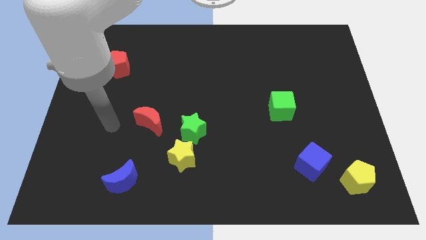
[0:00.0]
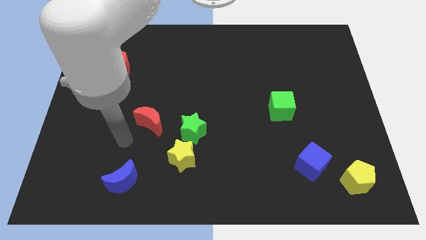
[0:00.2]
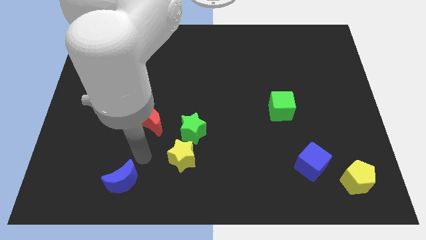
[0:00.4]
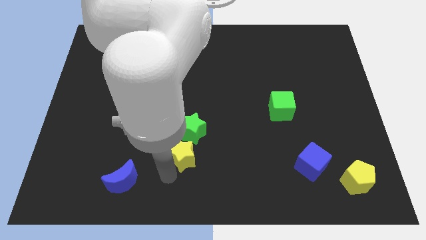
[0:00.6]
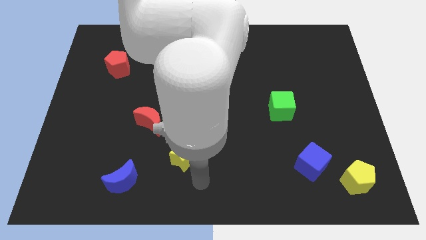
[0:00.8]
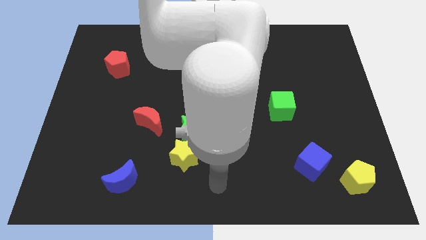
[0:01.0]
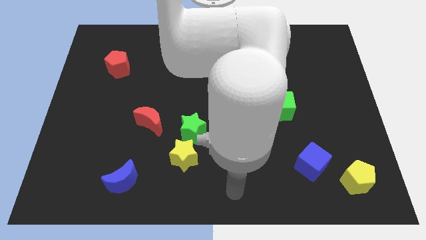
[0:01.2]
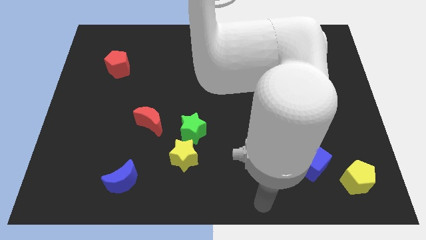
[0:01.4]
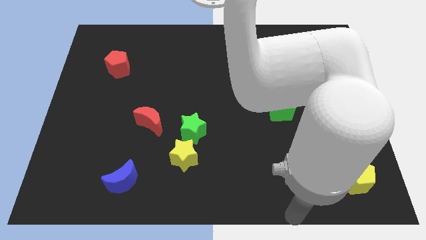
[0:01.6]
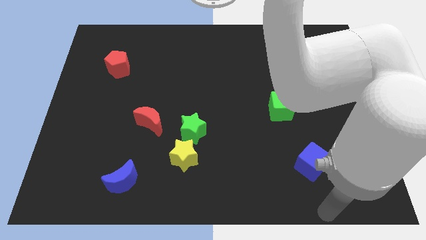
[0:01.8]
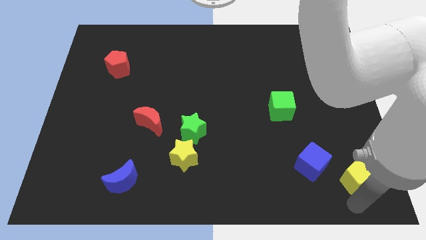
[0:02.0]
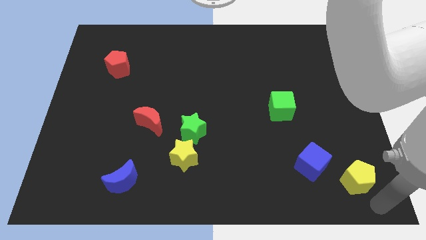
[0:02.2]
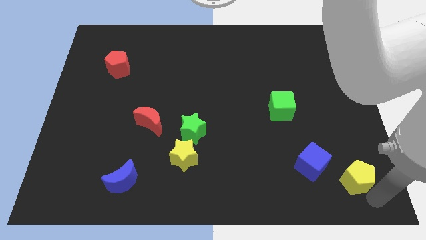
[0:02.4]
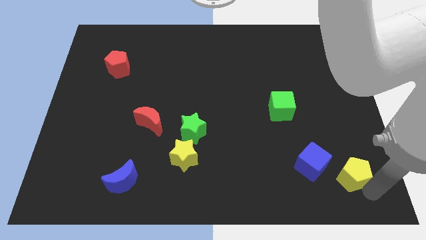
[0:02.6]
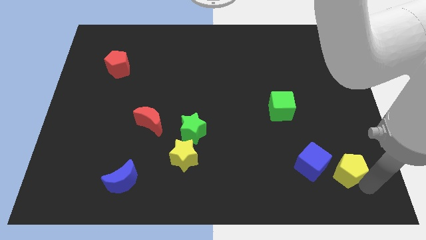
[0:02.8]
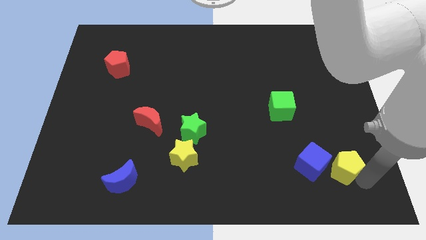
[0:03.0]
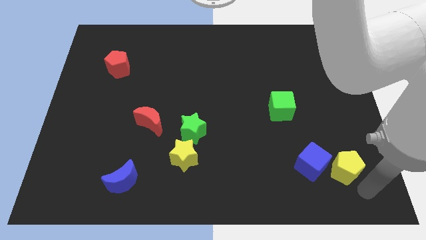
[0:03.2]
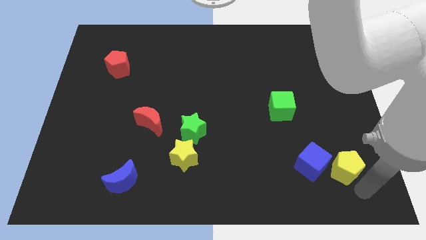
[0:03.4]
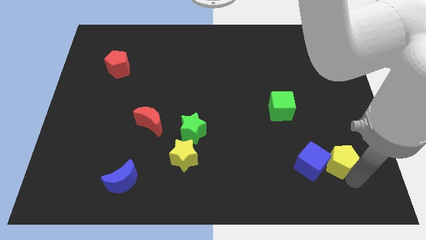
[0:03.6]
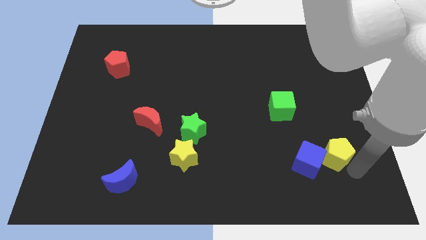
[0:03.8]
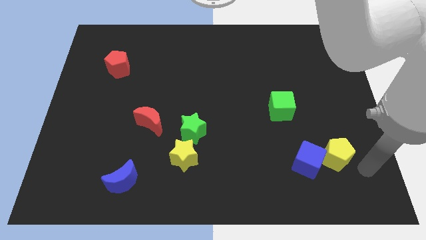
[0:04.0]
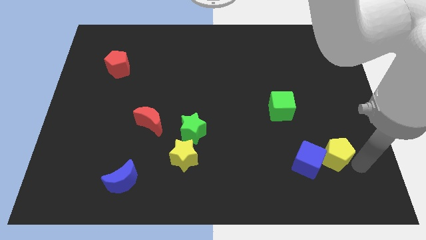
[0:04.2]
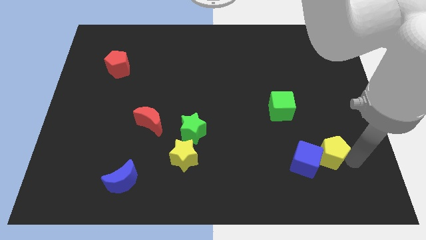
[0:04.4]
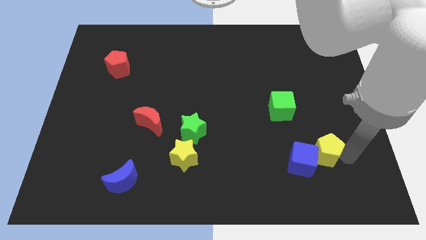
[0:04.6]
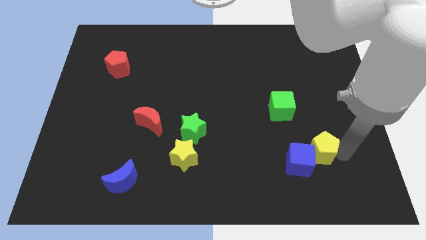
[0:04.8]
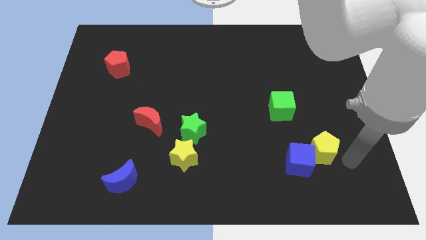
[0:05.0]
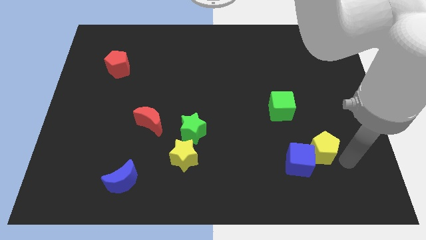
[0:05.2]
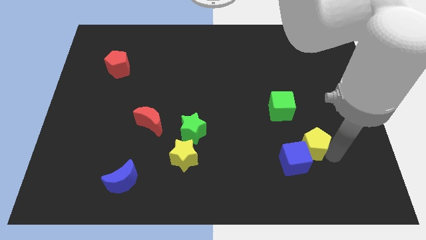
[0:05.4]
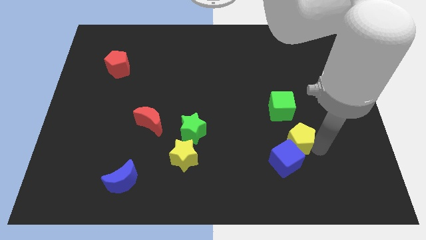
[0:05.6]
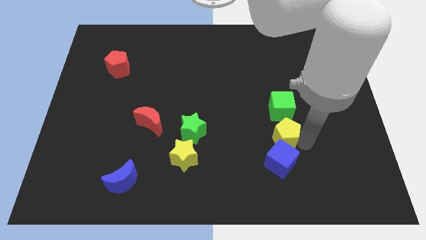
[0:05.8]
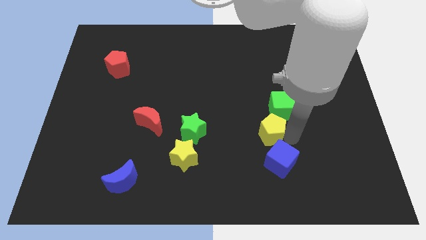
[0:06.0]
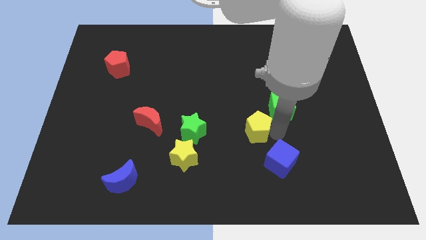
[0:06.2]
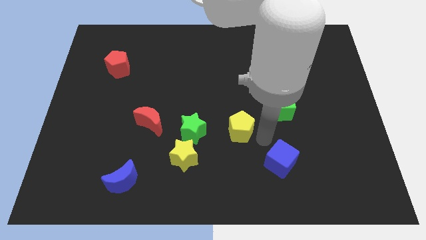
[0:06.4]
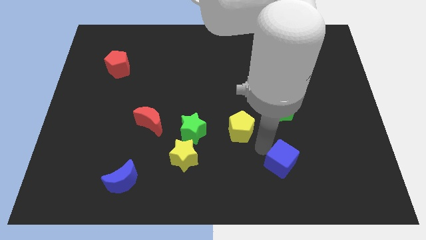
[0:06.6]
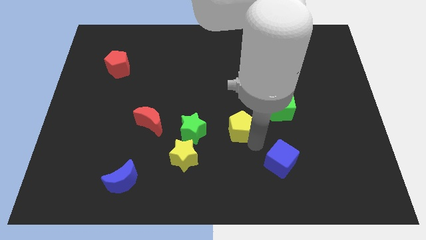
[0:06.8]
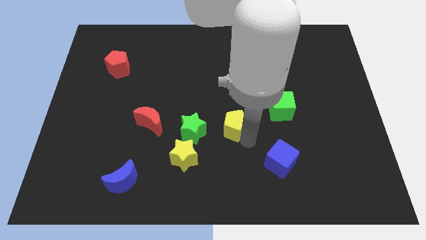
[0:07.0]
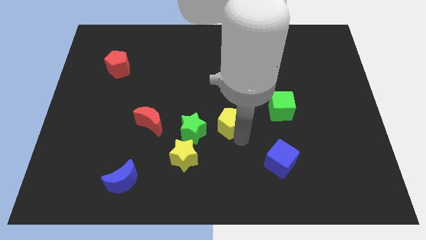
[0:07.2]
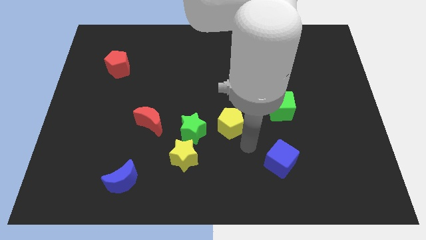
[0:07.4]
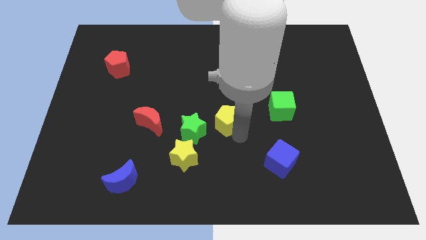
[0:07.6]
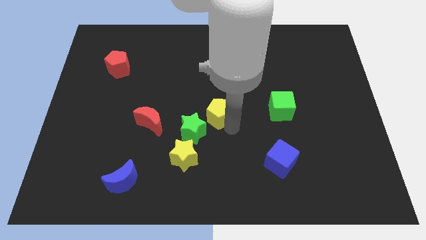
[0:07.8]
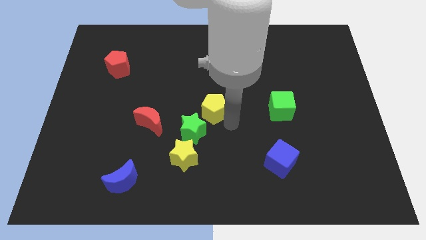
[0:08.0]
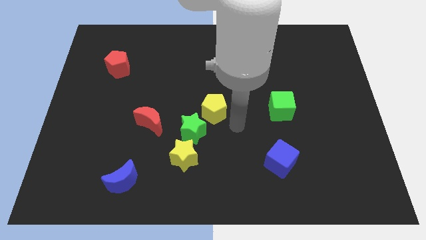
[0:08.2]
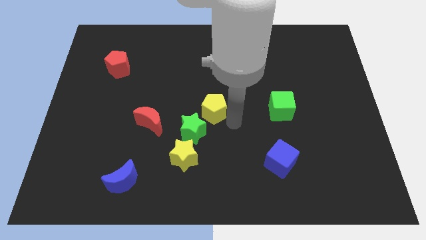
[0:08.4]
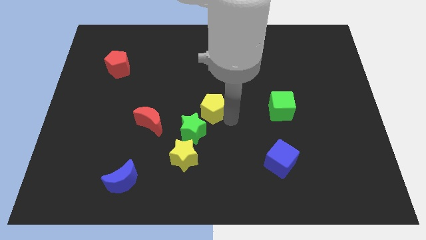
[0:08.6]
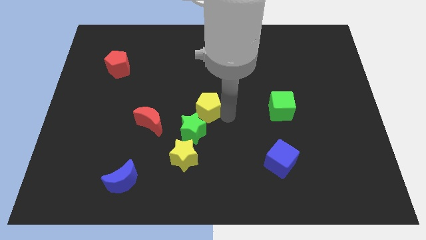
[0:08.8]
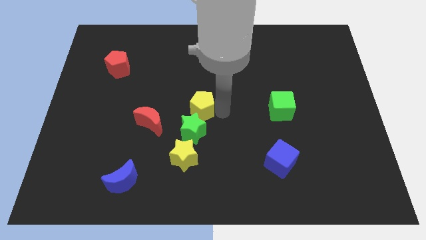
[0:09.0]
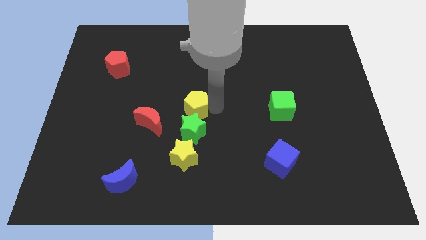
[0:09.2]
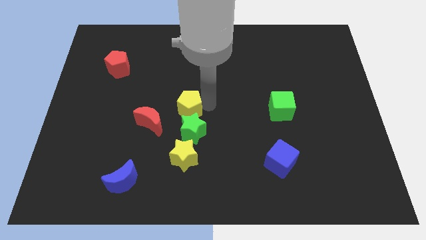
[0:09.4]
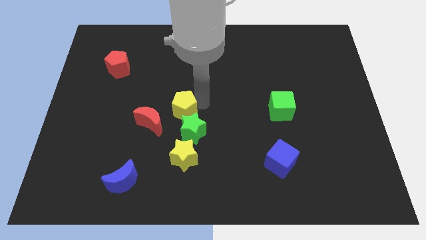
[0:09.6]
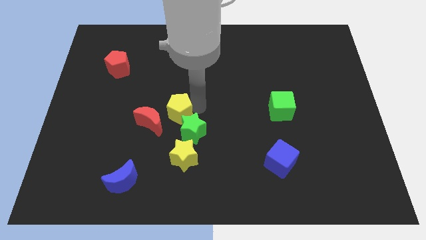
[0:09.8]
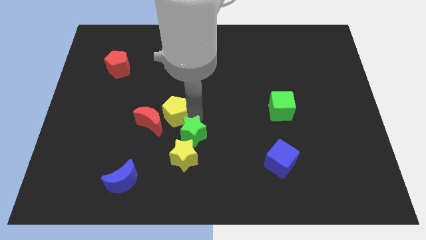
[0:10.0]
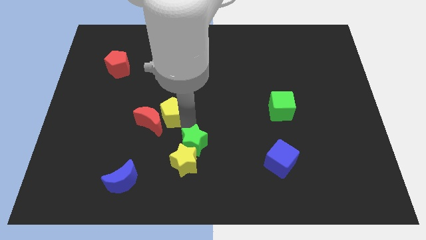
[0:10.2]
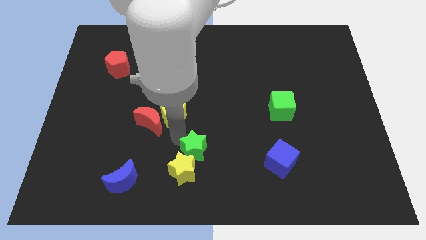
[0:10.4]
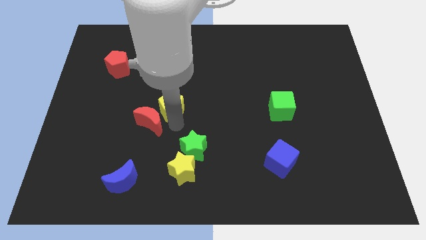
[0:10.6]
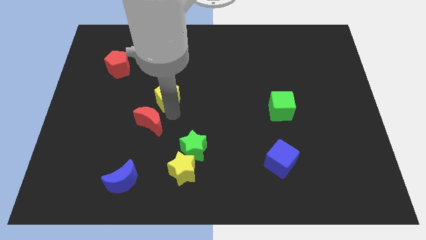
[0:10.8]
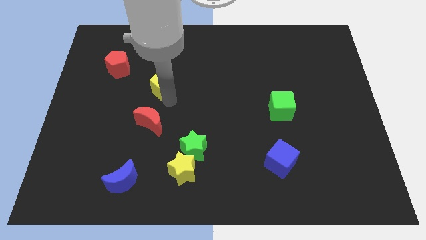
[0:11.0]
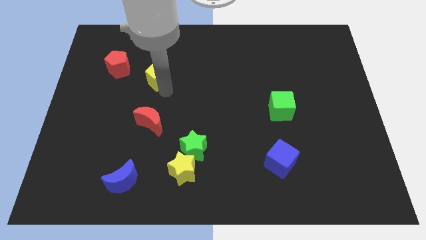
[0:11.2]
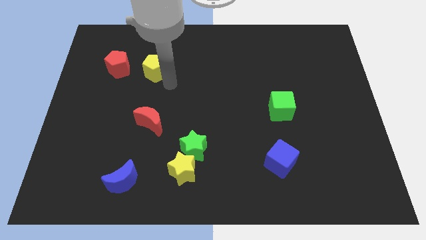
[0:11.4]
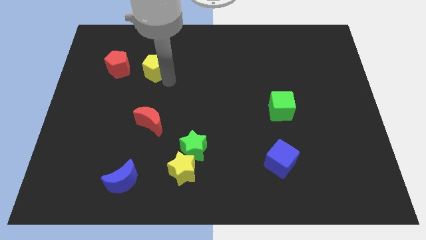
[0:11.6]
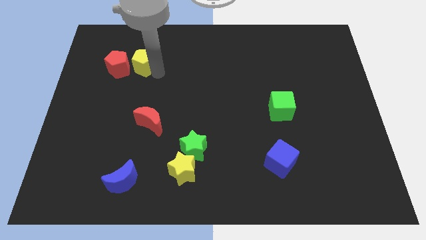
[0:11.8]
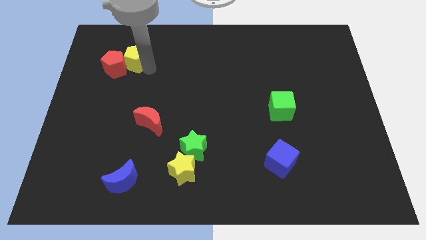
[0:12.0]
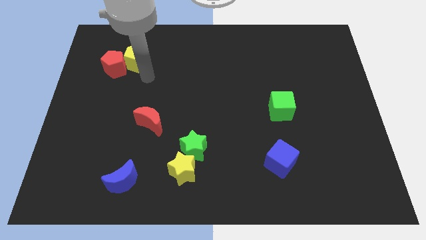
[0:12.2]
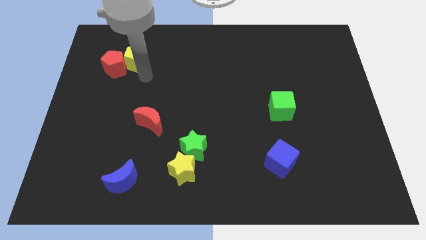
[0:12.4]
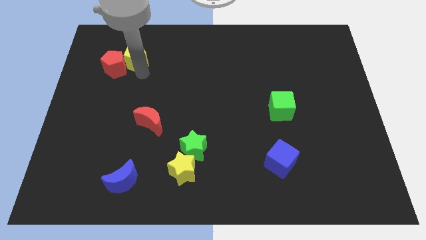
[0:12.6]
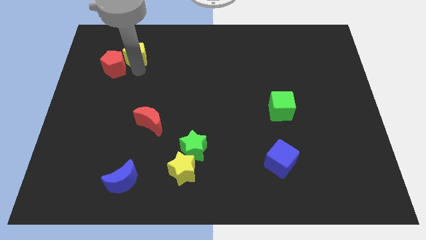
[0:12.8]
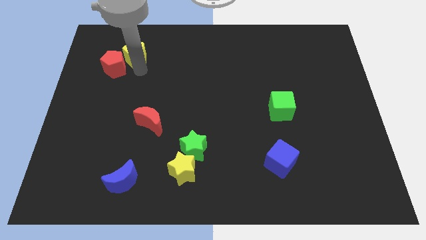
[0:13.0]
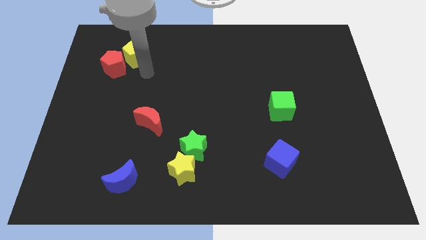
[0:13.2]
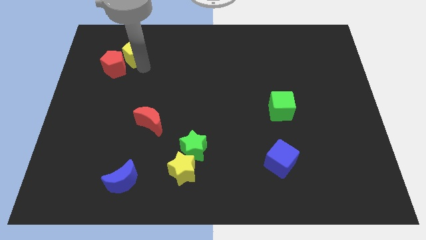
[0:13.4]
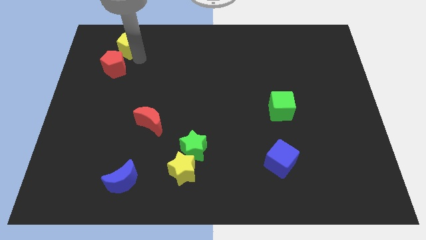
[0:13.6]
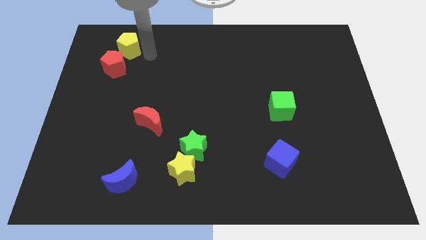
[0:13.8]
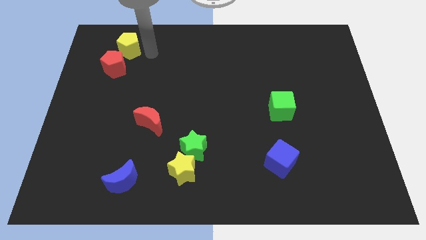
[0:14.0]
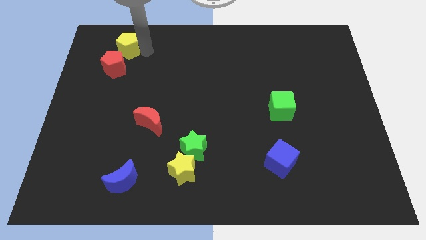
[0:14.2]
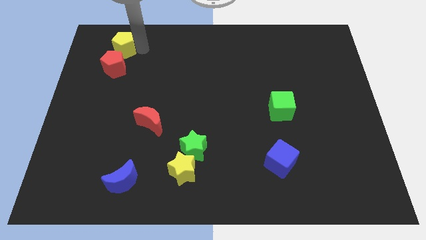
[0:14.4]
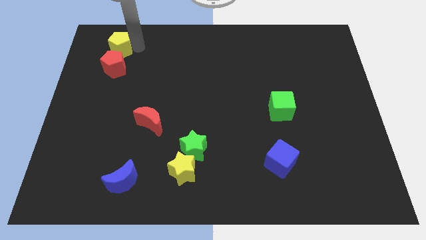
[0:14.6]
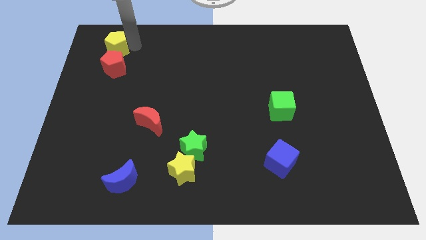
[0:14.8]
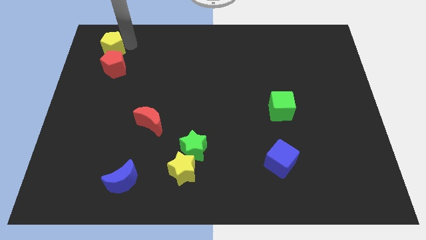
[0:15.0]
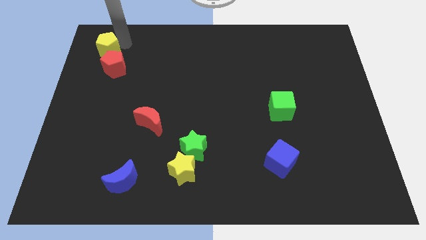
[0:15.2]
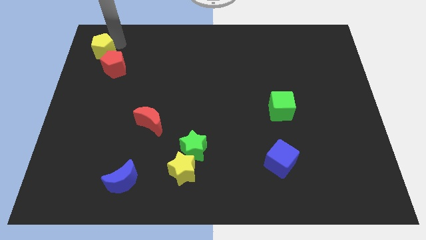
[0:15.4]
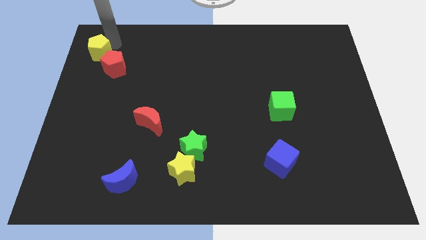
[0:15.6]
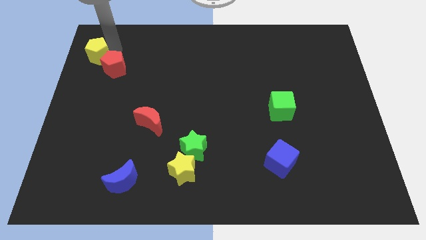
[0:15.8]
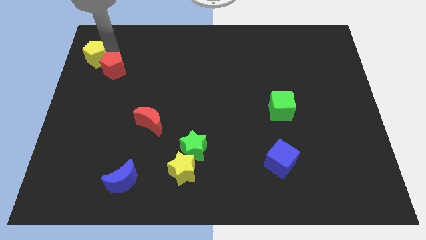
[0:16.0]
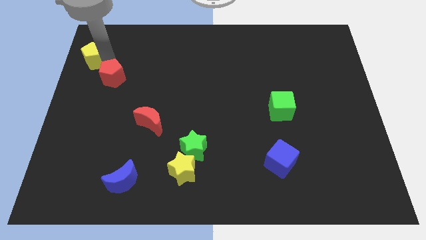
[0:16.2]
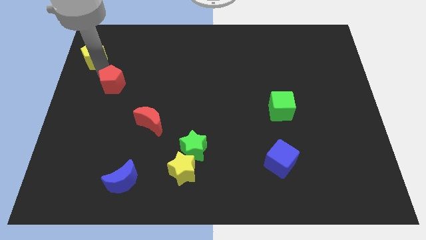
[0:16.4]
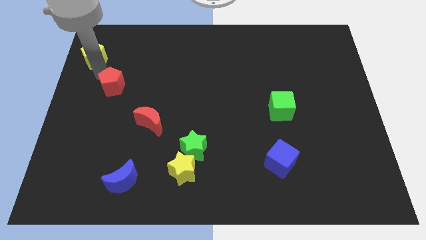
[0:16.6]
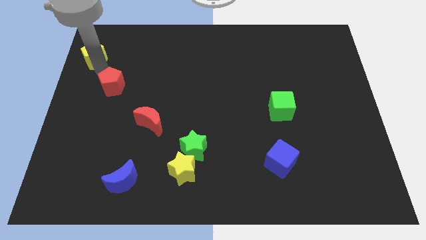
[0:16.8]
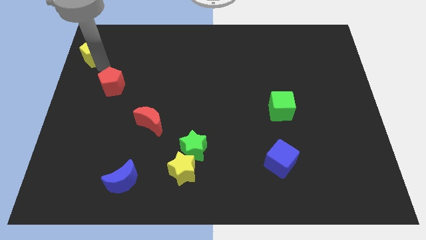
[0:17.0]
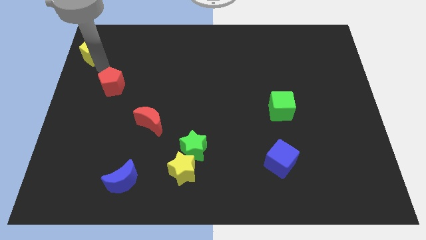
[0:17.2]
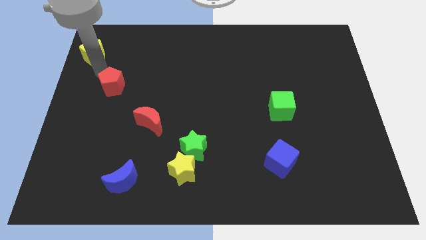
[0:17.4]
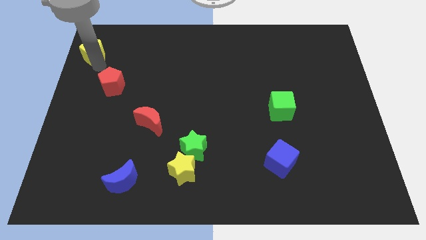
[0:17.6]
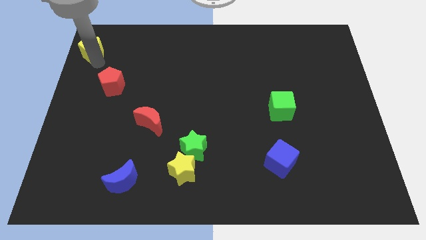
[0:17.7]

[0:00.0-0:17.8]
slide the yellow pentagon to the top left
